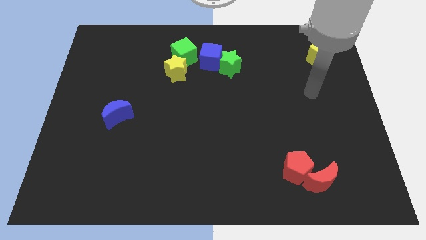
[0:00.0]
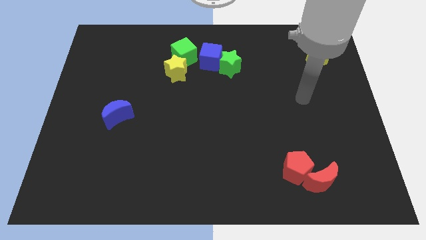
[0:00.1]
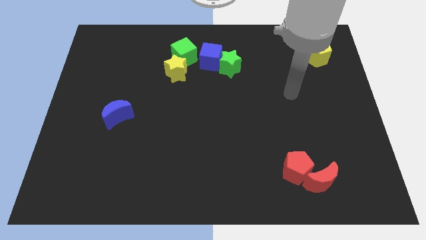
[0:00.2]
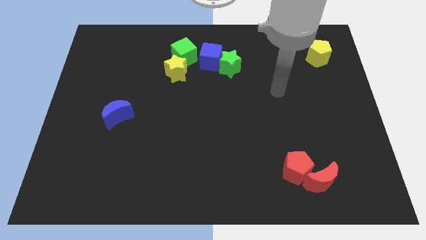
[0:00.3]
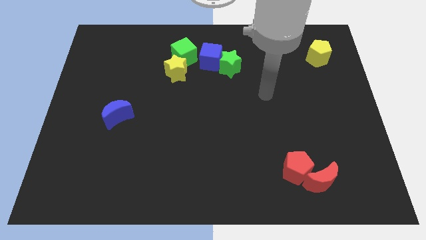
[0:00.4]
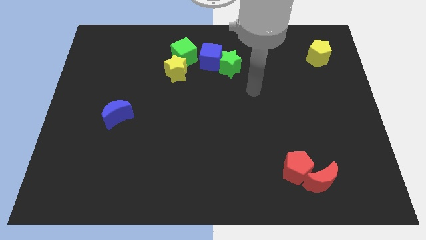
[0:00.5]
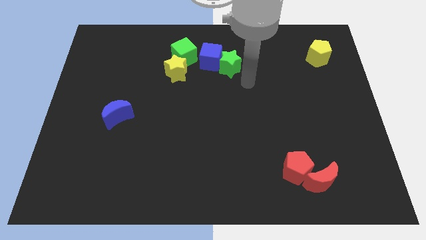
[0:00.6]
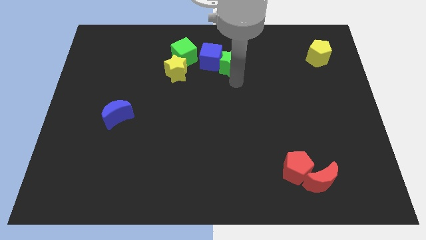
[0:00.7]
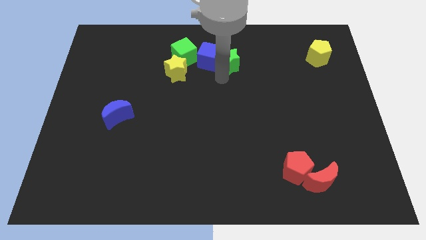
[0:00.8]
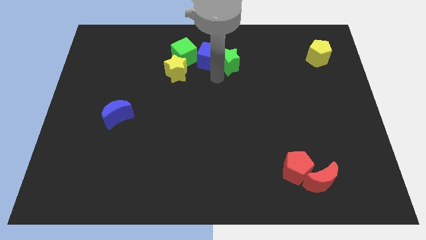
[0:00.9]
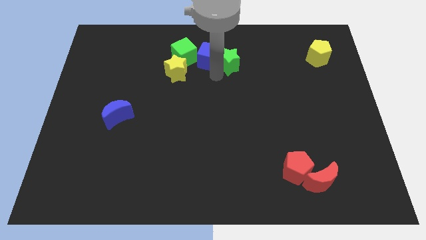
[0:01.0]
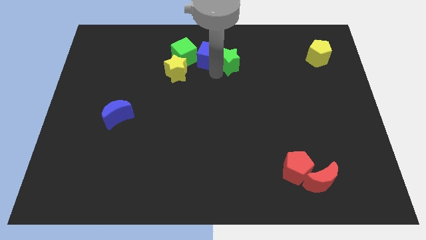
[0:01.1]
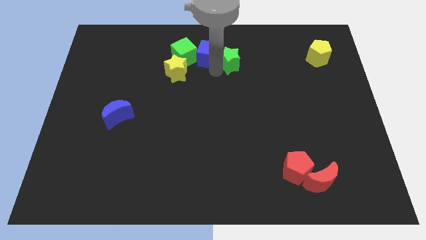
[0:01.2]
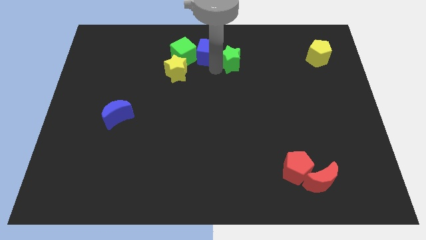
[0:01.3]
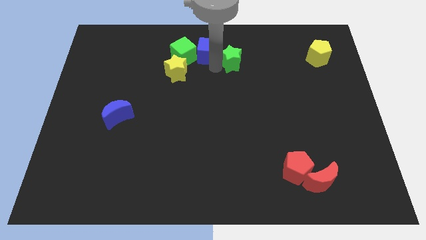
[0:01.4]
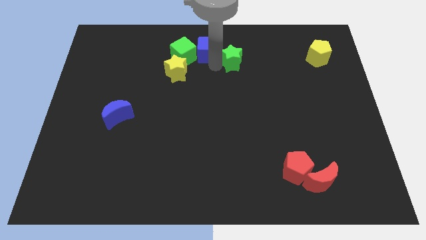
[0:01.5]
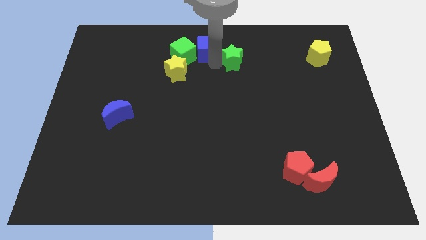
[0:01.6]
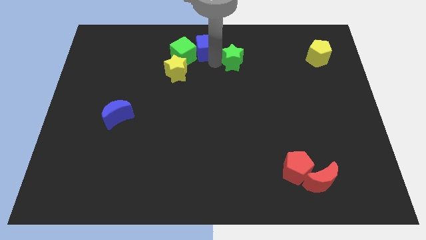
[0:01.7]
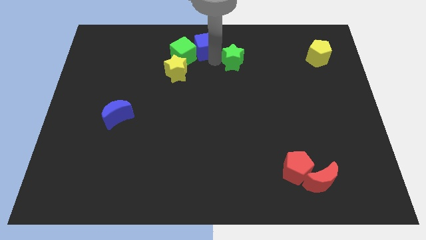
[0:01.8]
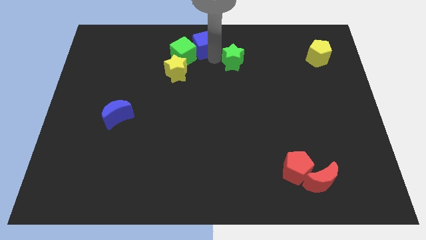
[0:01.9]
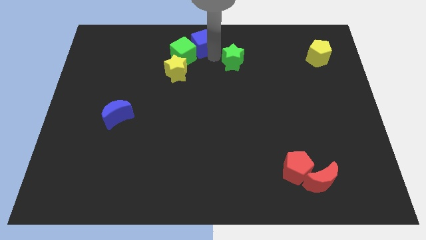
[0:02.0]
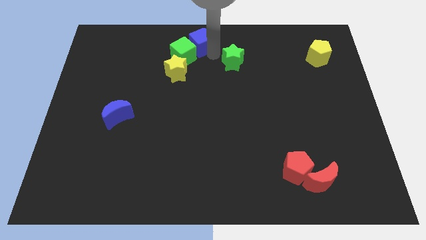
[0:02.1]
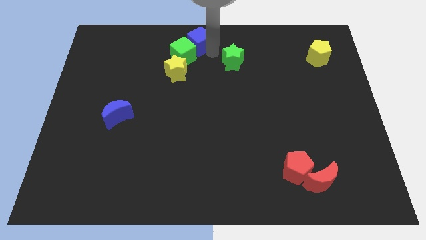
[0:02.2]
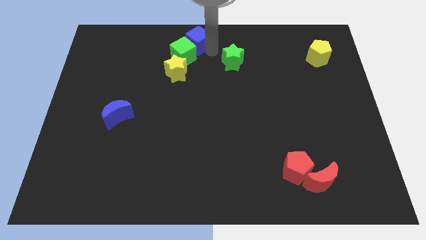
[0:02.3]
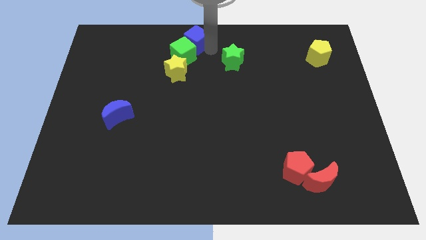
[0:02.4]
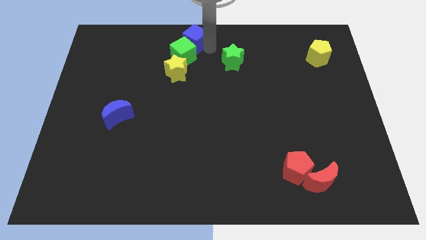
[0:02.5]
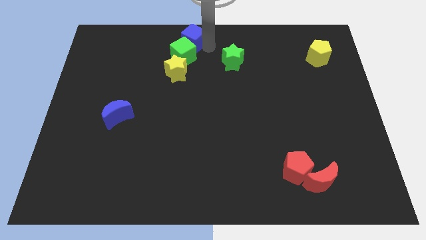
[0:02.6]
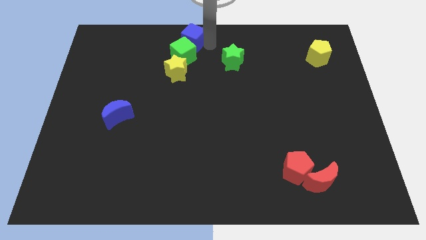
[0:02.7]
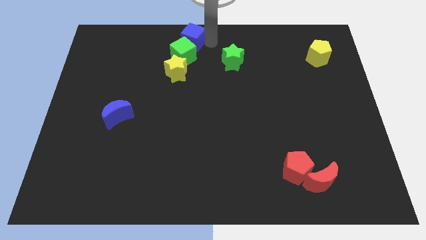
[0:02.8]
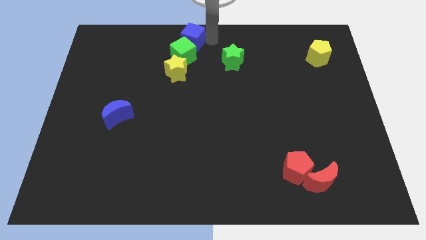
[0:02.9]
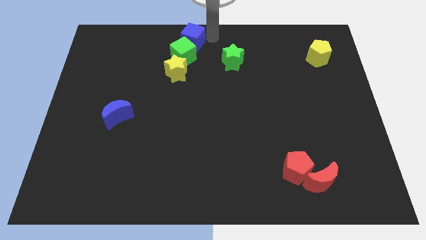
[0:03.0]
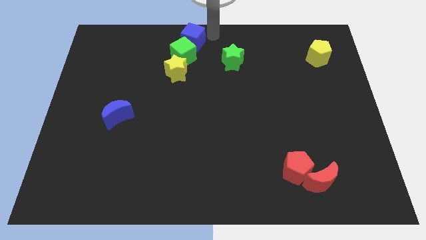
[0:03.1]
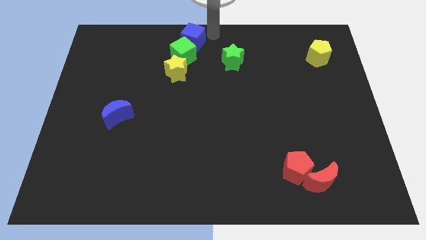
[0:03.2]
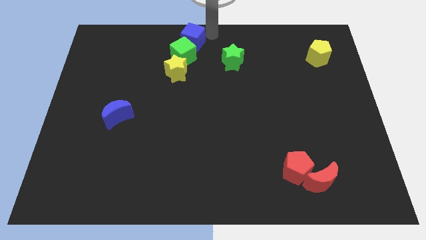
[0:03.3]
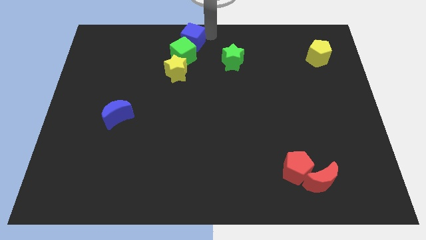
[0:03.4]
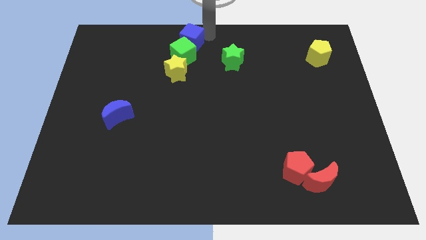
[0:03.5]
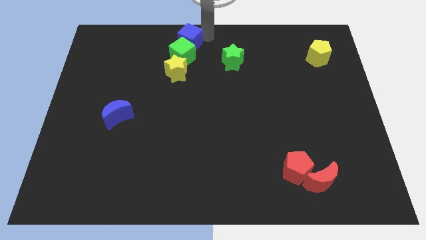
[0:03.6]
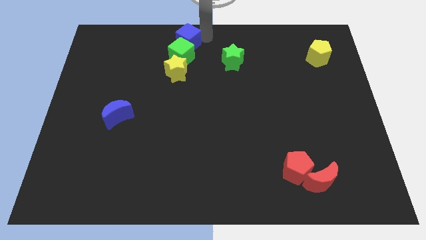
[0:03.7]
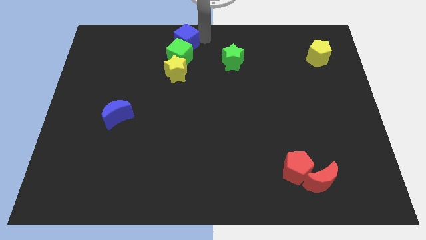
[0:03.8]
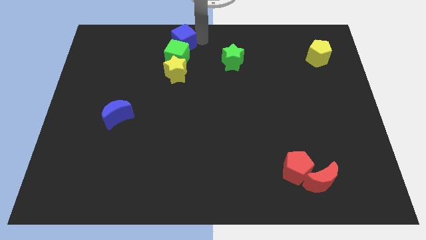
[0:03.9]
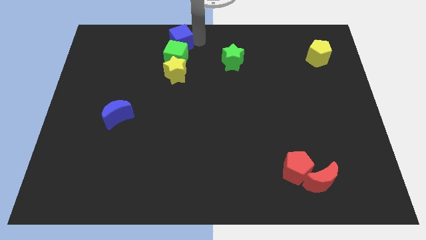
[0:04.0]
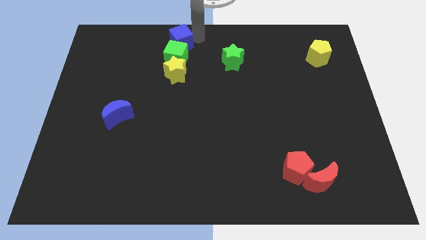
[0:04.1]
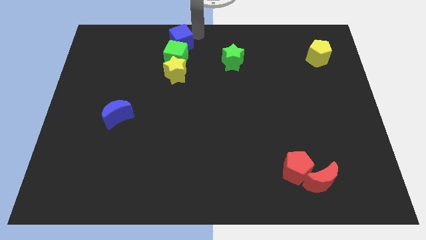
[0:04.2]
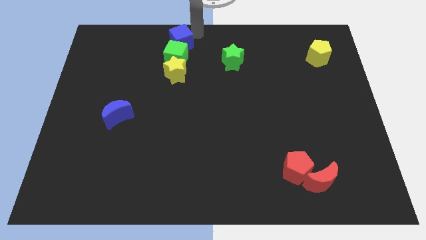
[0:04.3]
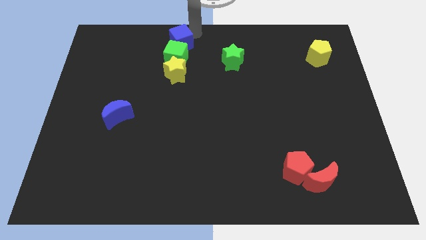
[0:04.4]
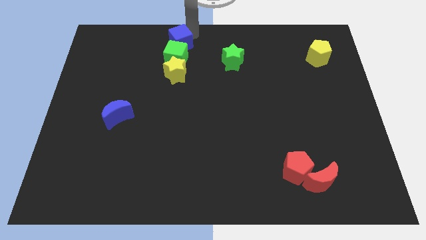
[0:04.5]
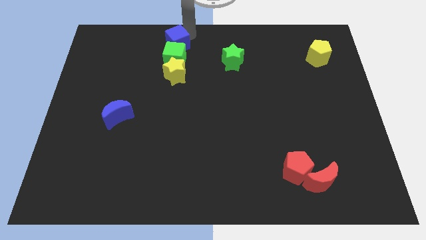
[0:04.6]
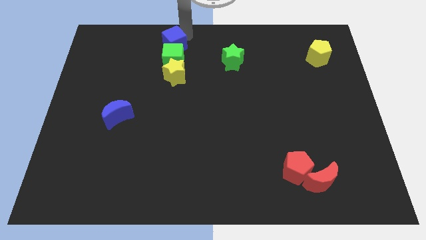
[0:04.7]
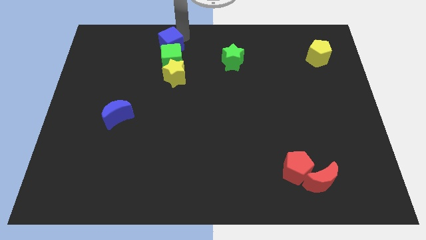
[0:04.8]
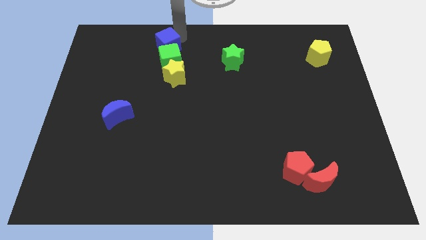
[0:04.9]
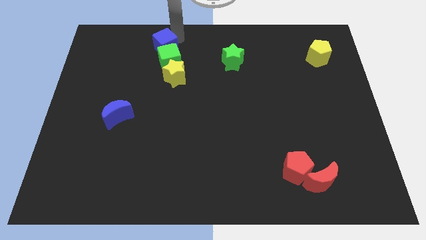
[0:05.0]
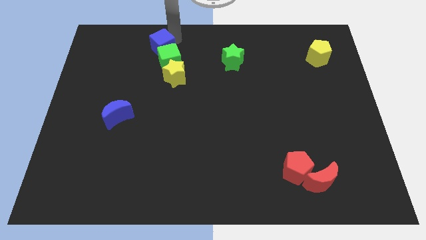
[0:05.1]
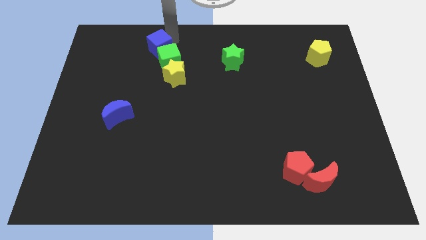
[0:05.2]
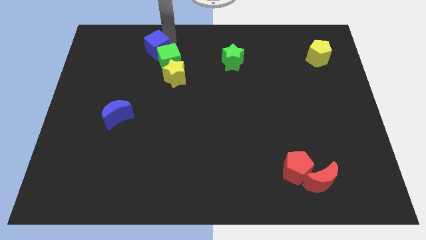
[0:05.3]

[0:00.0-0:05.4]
push the blue cube to the top left of the yellow star

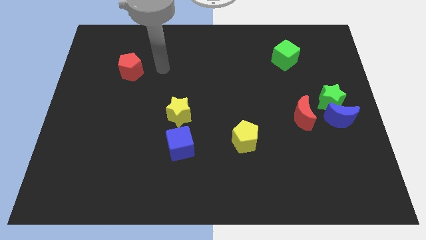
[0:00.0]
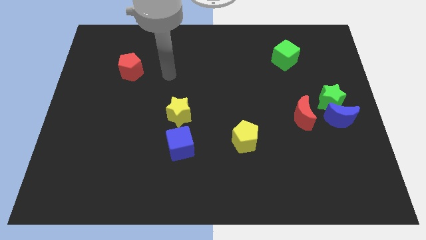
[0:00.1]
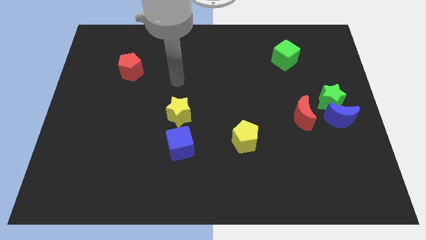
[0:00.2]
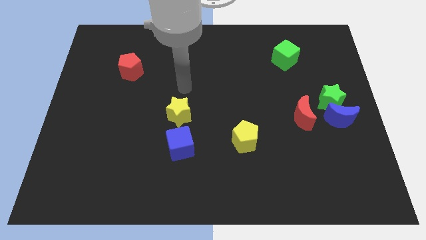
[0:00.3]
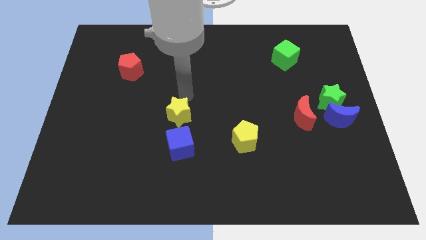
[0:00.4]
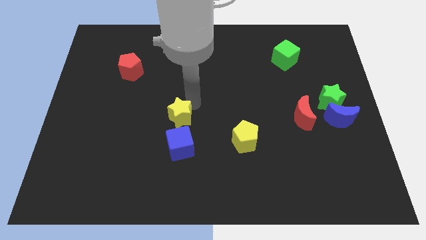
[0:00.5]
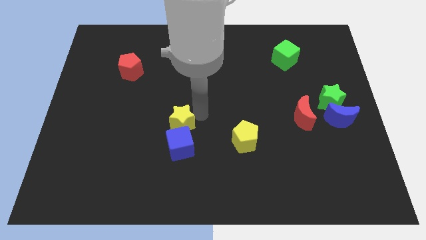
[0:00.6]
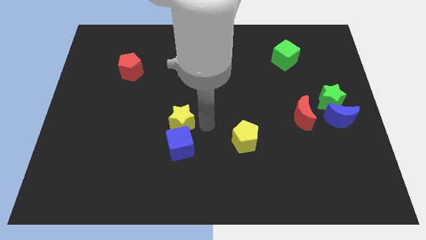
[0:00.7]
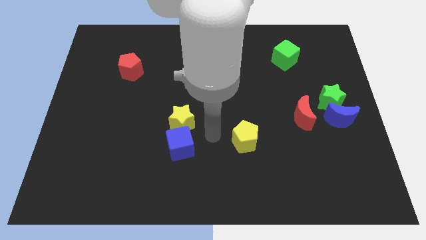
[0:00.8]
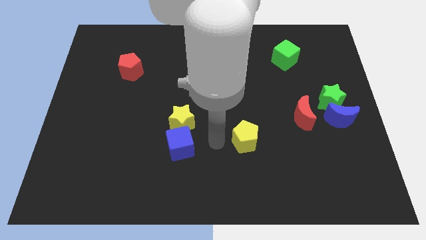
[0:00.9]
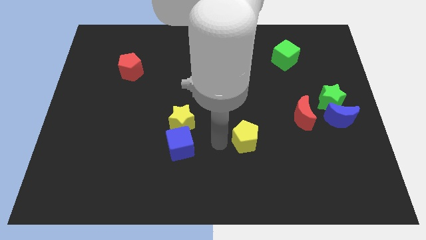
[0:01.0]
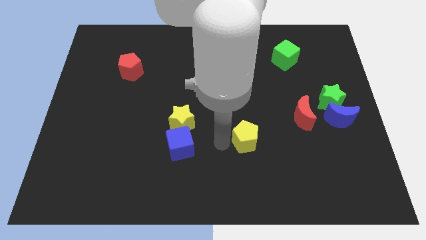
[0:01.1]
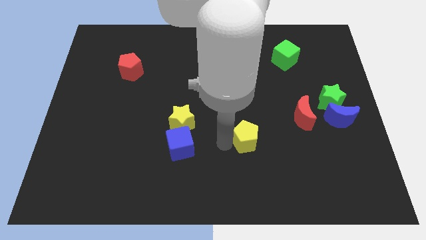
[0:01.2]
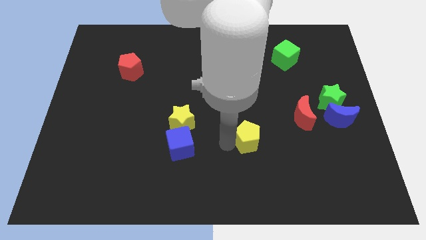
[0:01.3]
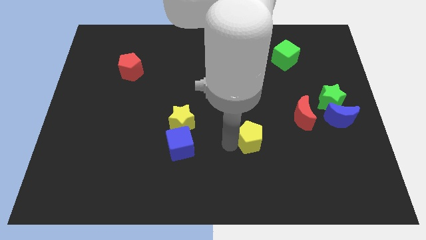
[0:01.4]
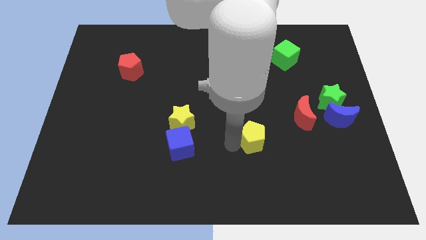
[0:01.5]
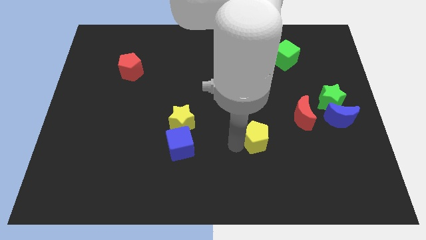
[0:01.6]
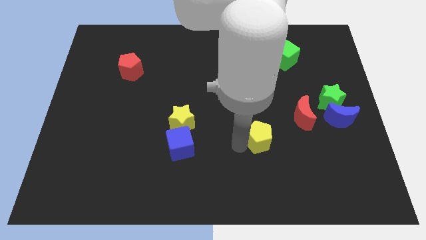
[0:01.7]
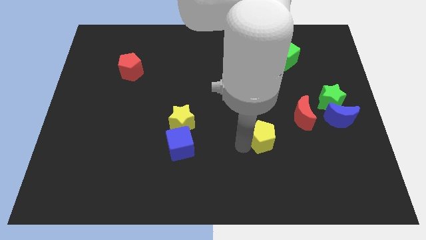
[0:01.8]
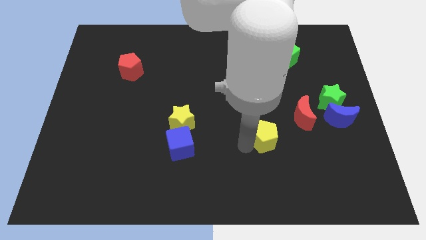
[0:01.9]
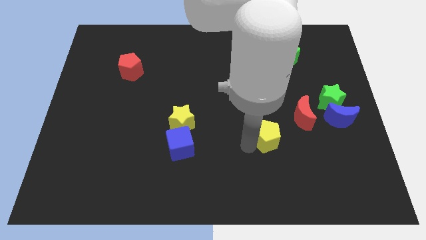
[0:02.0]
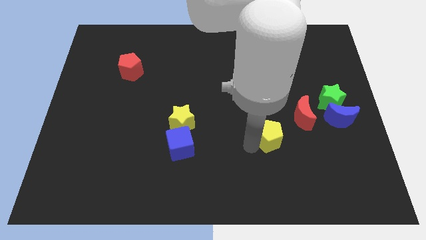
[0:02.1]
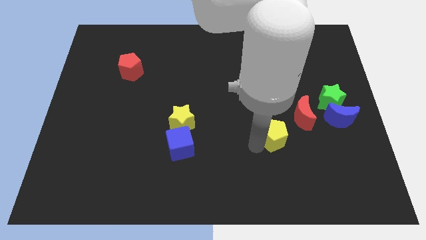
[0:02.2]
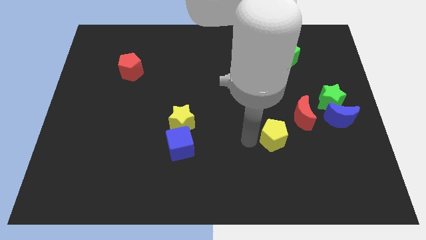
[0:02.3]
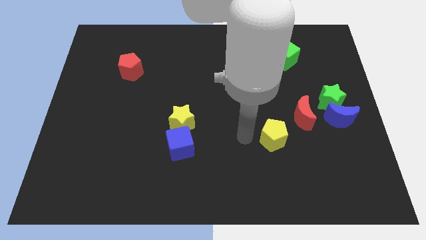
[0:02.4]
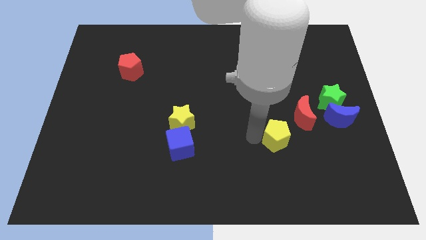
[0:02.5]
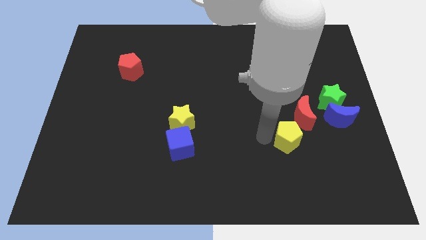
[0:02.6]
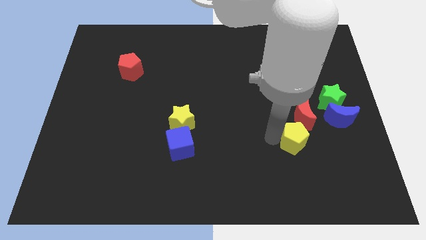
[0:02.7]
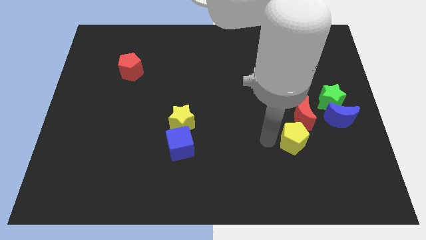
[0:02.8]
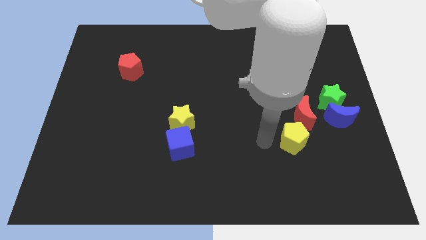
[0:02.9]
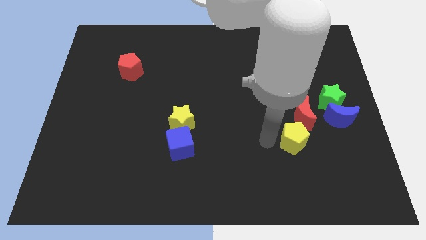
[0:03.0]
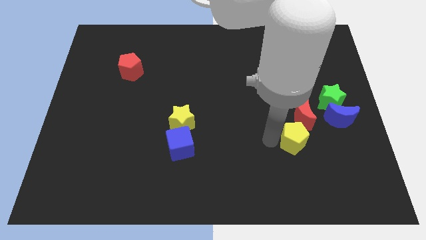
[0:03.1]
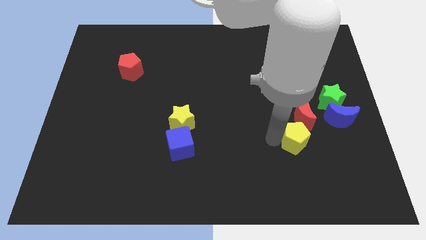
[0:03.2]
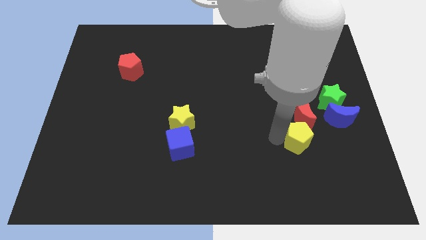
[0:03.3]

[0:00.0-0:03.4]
move the yellow pentagon diagonally down and to the left of the blue moon
